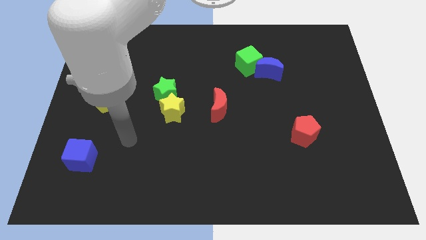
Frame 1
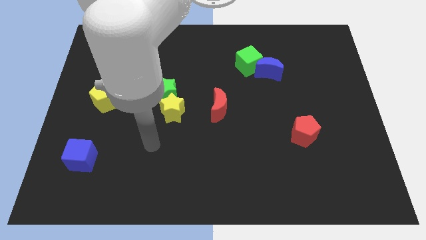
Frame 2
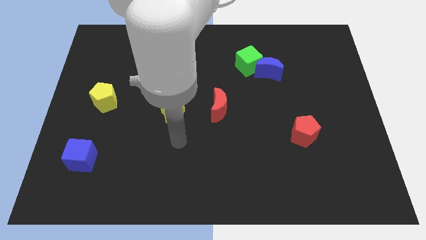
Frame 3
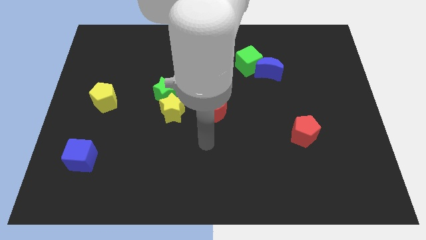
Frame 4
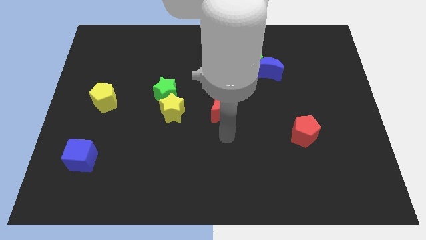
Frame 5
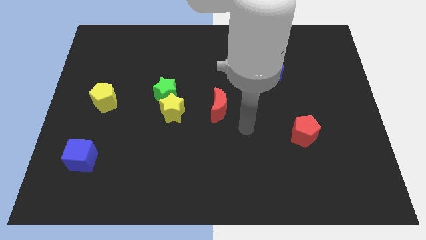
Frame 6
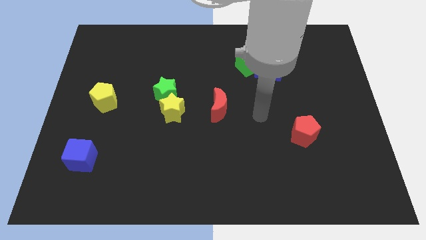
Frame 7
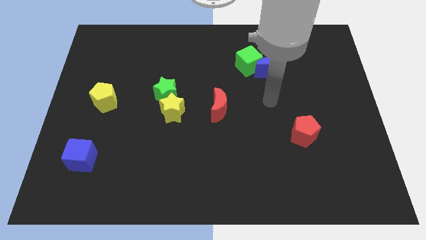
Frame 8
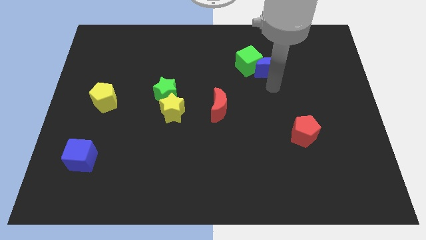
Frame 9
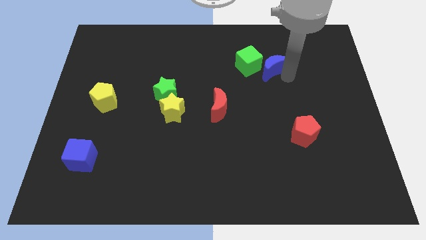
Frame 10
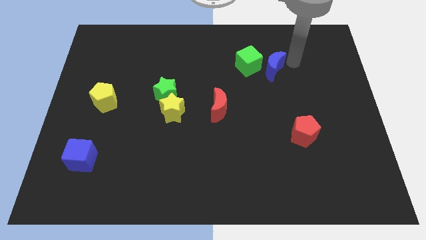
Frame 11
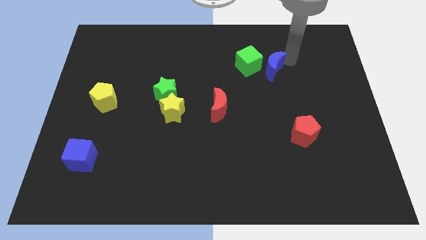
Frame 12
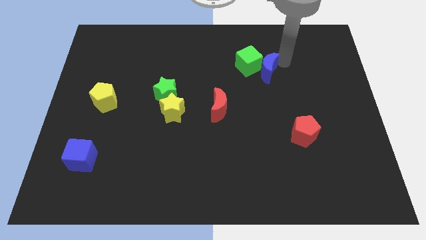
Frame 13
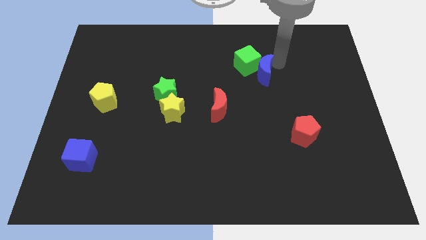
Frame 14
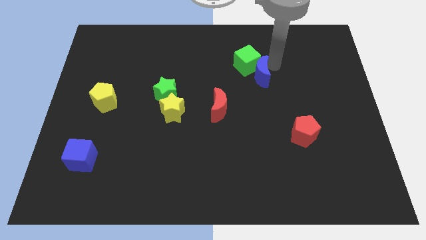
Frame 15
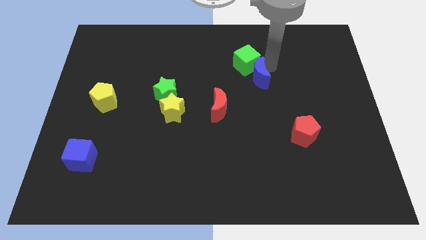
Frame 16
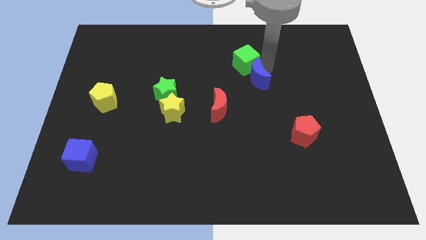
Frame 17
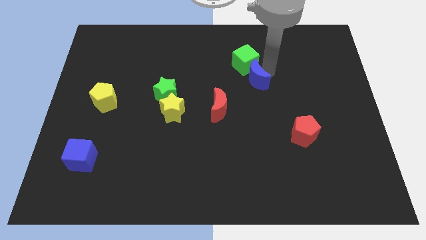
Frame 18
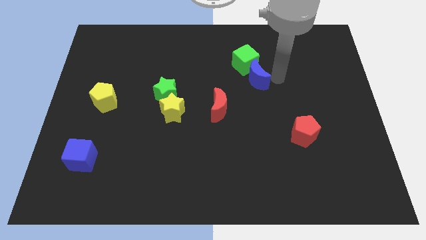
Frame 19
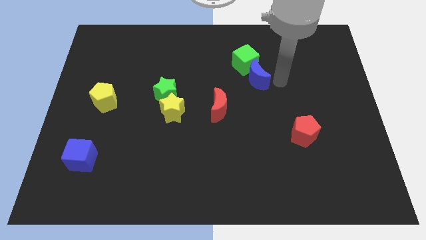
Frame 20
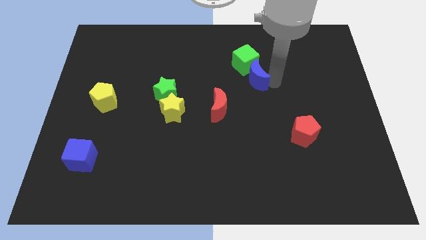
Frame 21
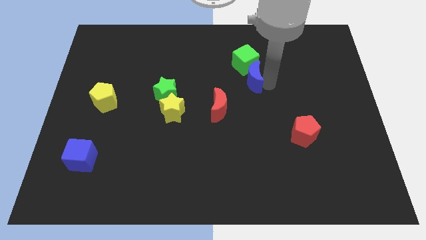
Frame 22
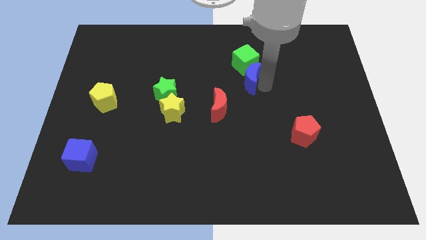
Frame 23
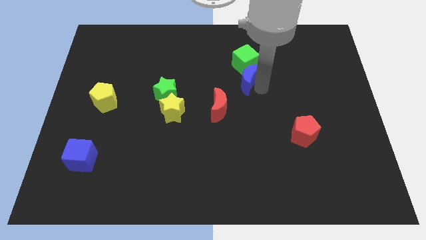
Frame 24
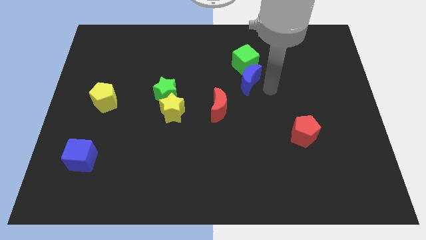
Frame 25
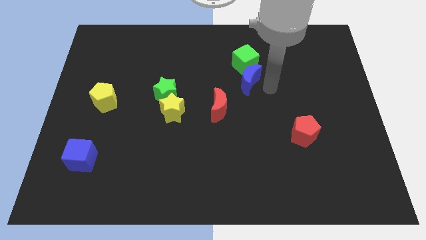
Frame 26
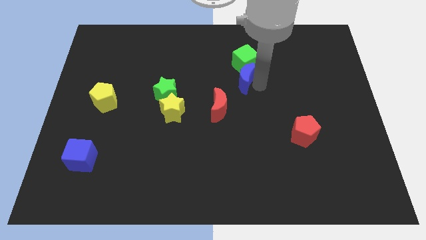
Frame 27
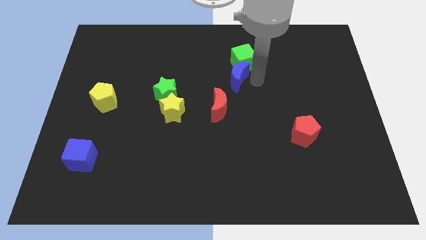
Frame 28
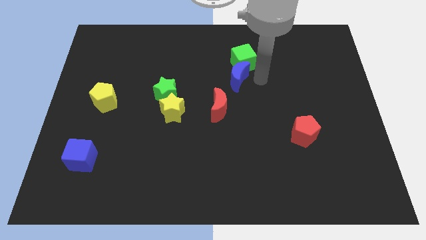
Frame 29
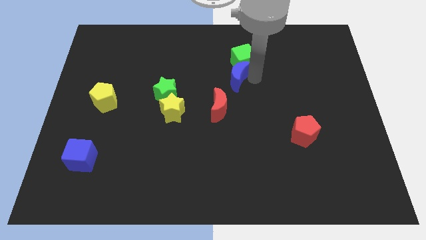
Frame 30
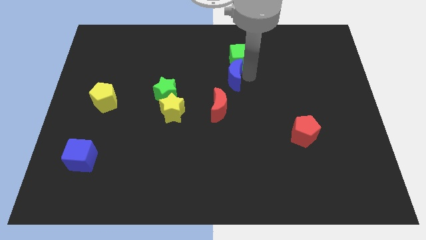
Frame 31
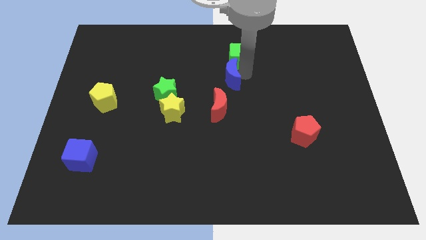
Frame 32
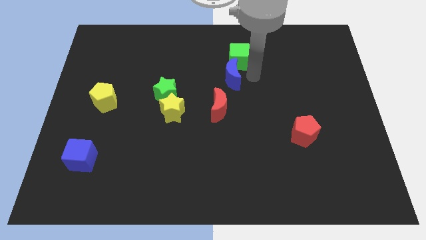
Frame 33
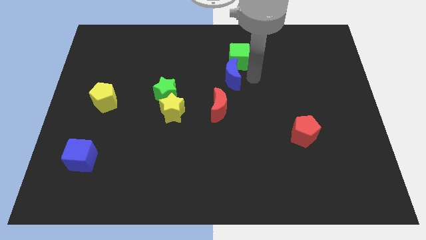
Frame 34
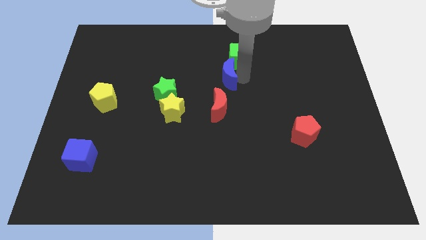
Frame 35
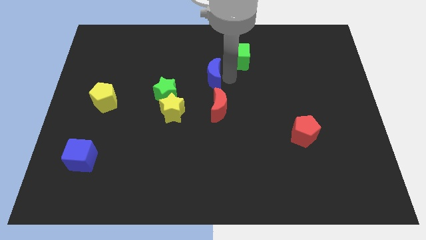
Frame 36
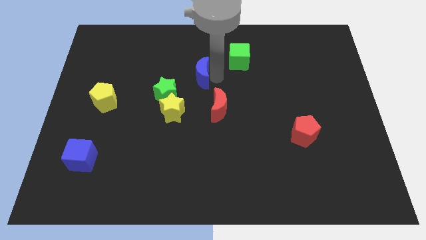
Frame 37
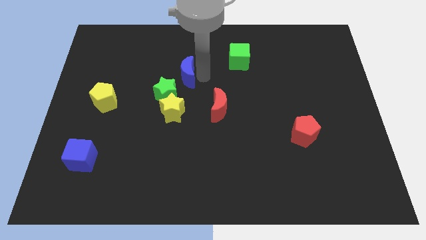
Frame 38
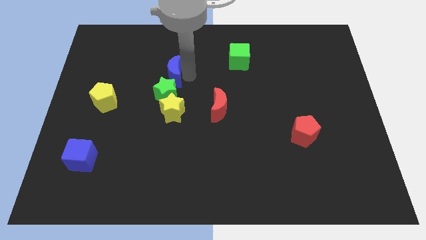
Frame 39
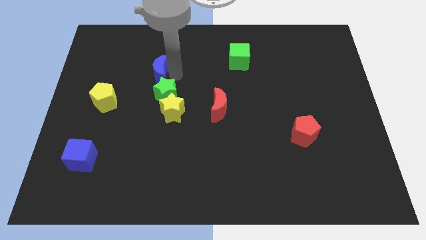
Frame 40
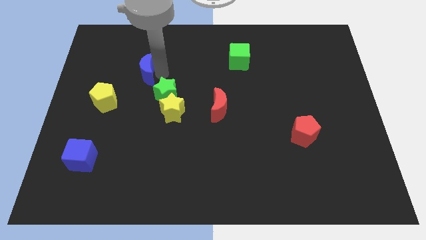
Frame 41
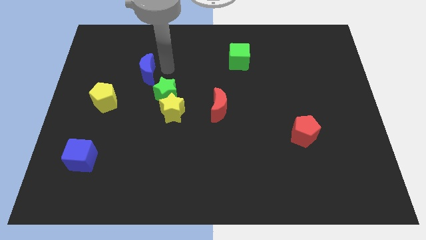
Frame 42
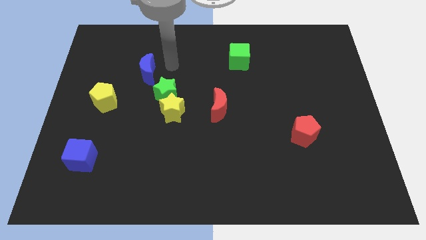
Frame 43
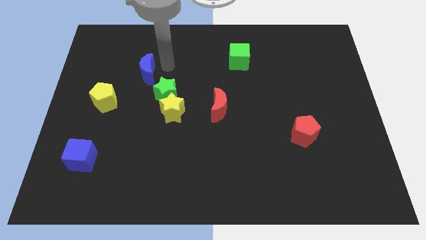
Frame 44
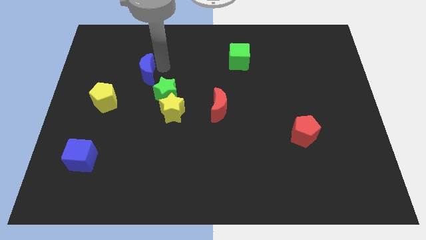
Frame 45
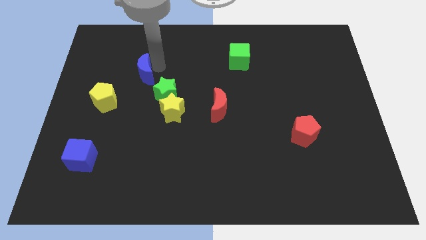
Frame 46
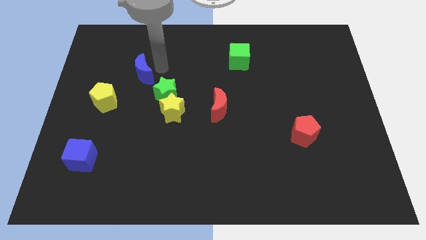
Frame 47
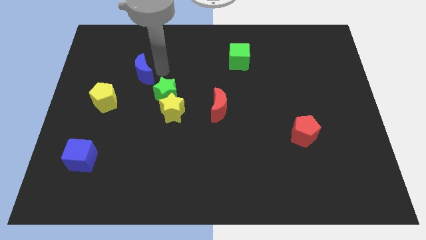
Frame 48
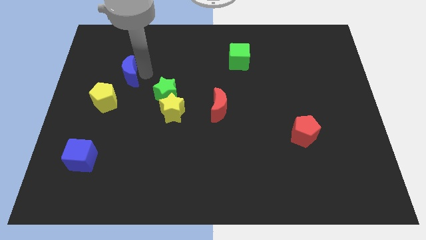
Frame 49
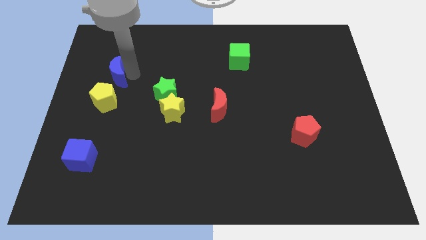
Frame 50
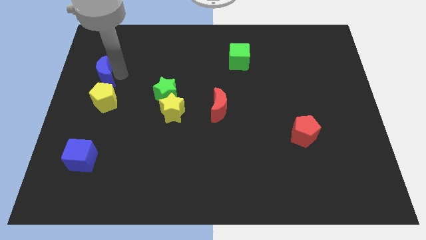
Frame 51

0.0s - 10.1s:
move the blue moon to the left side of the board

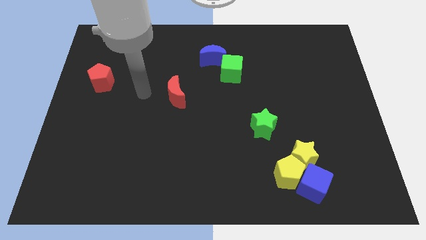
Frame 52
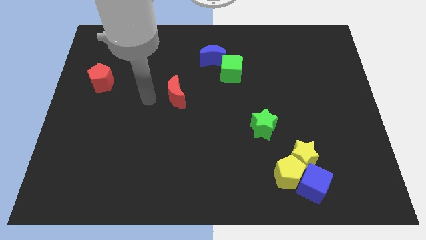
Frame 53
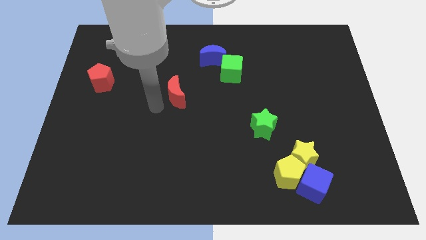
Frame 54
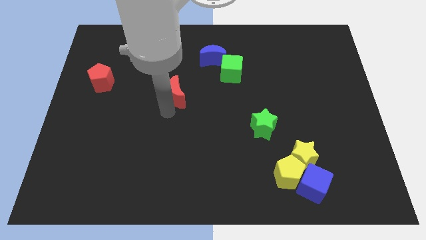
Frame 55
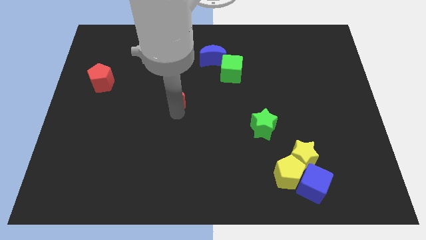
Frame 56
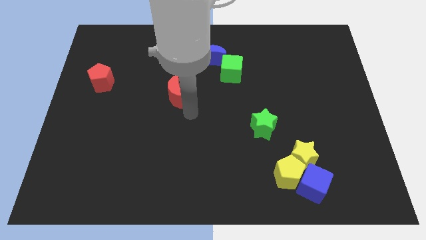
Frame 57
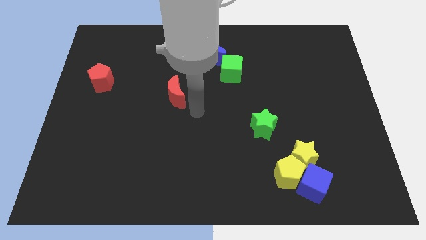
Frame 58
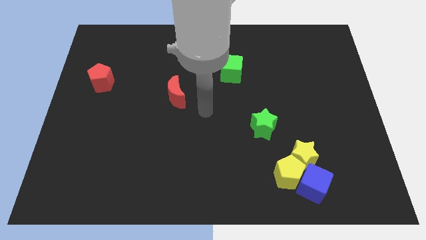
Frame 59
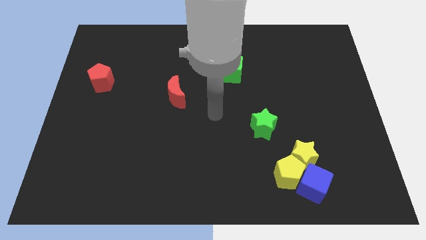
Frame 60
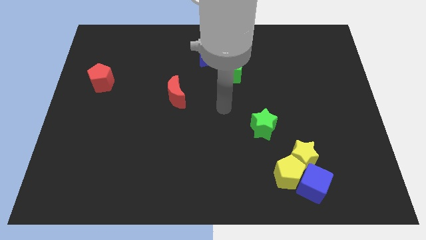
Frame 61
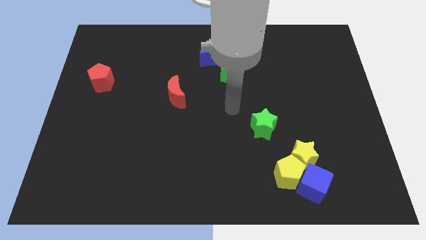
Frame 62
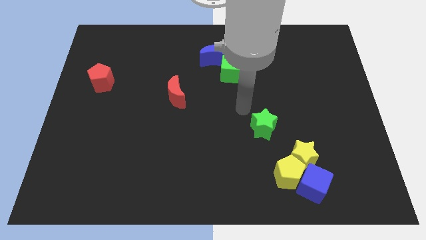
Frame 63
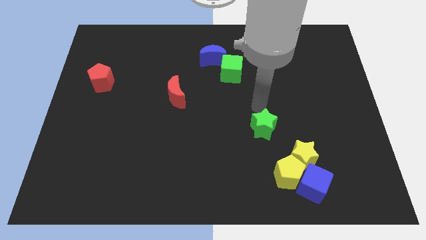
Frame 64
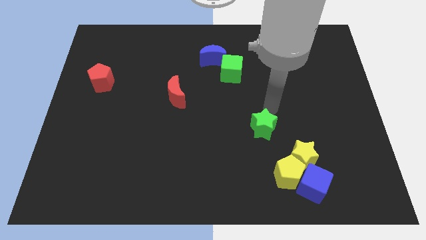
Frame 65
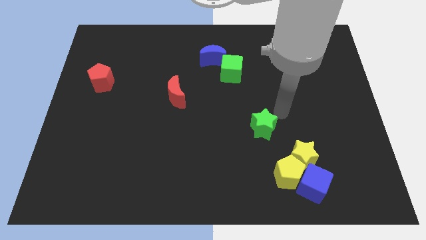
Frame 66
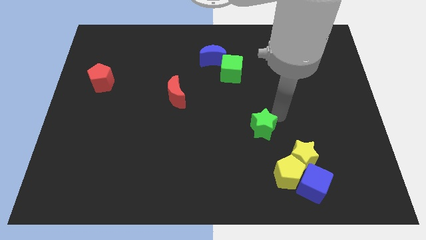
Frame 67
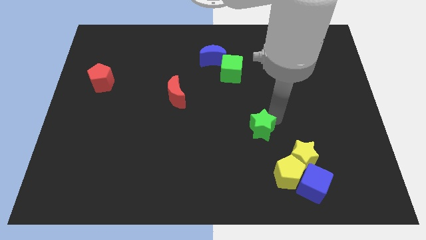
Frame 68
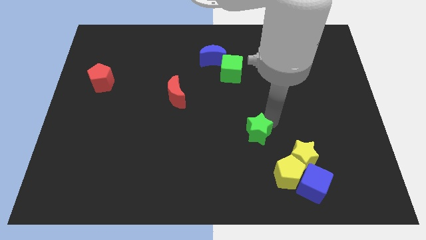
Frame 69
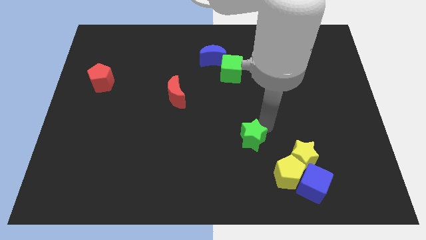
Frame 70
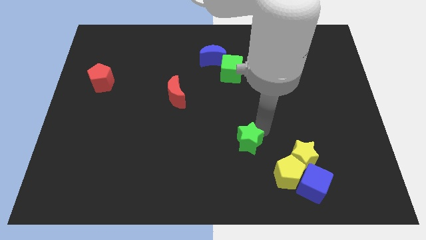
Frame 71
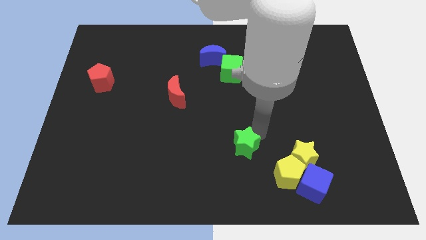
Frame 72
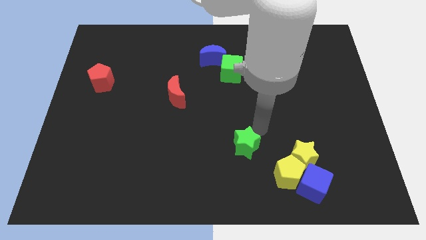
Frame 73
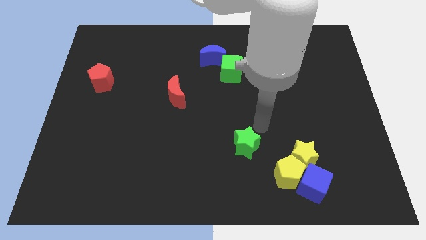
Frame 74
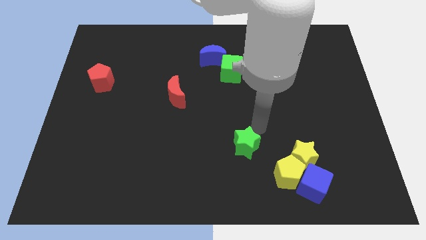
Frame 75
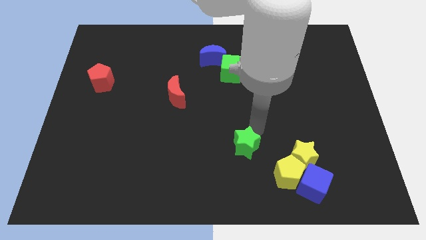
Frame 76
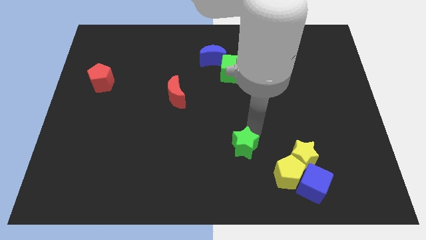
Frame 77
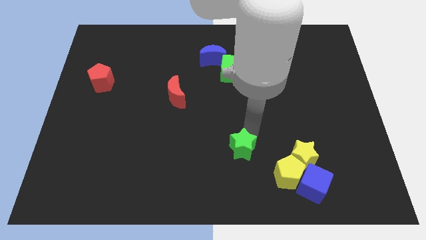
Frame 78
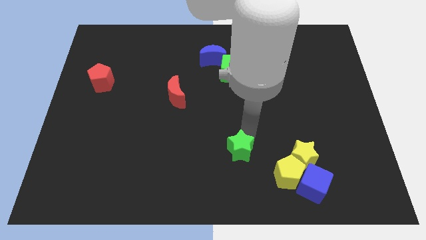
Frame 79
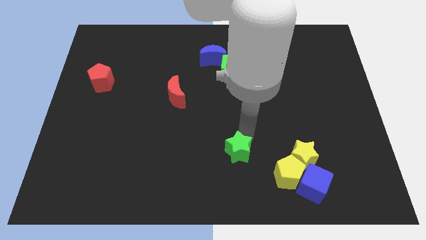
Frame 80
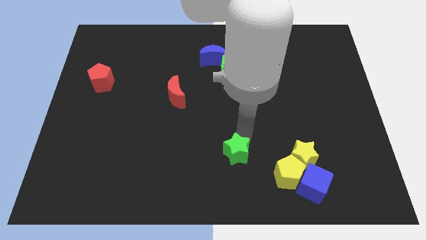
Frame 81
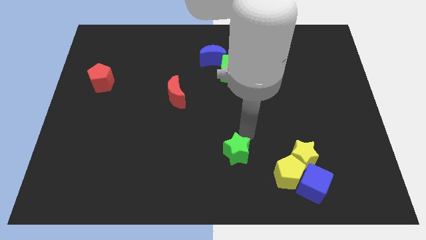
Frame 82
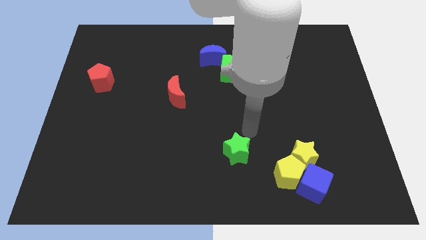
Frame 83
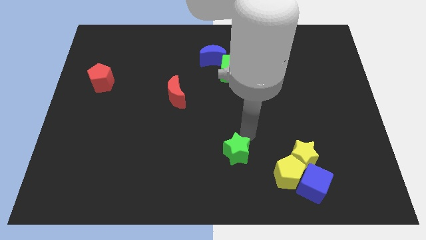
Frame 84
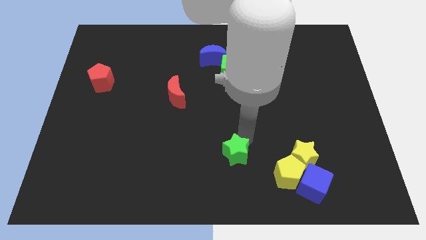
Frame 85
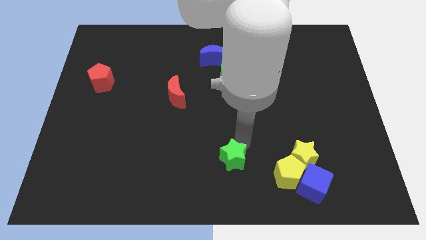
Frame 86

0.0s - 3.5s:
move the green star to the bottom side
